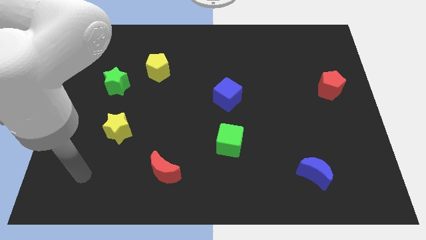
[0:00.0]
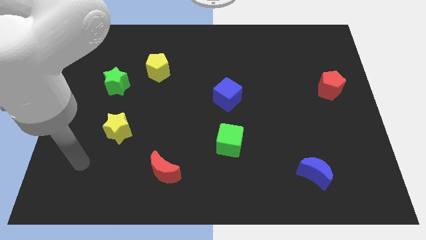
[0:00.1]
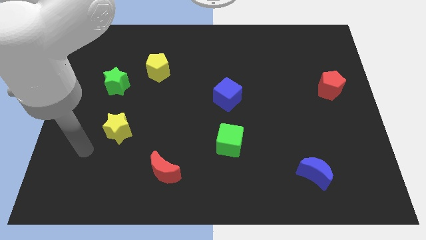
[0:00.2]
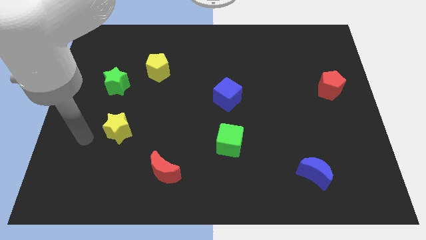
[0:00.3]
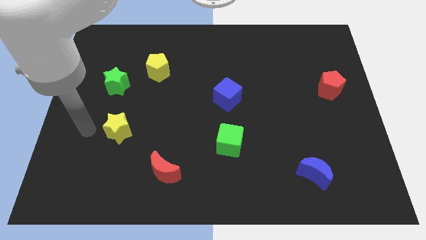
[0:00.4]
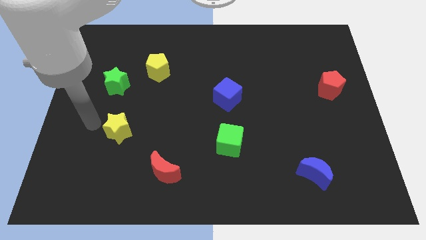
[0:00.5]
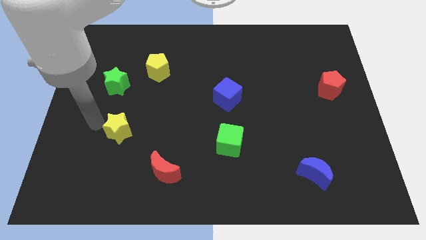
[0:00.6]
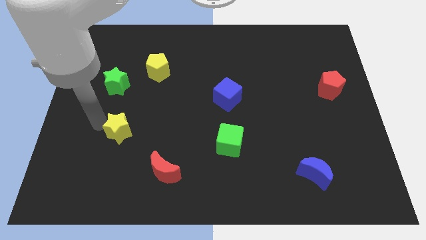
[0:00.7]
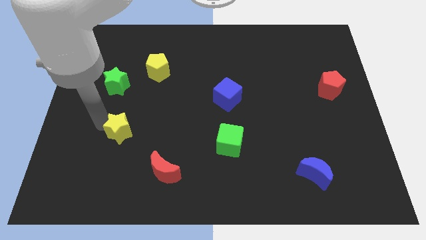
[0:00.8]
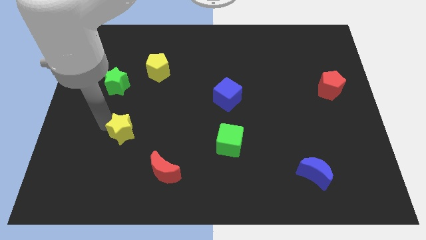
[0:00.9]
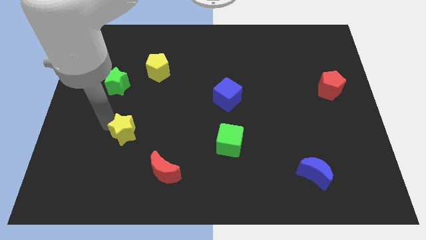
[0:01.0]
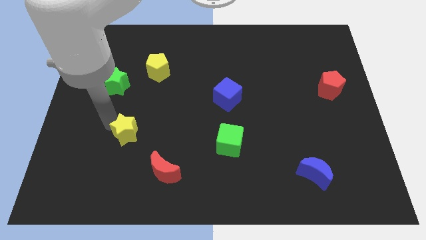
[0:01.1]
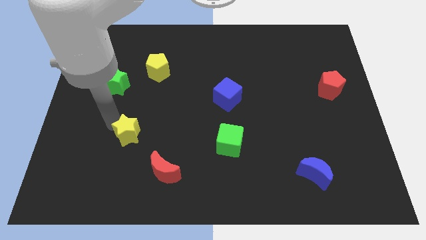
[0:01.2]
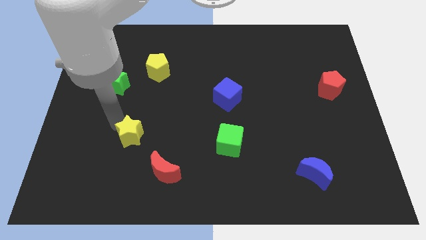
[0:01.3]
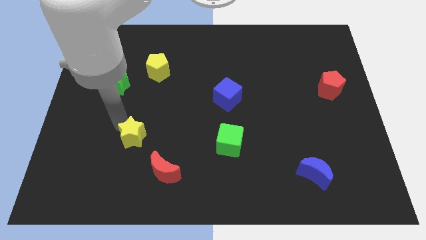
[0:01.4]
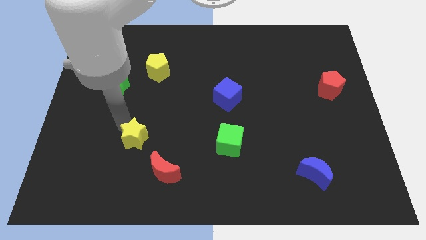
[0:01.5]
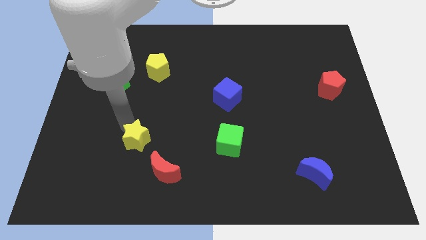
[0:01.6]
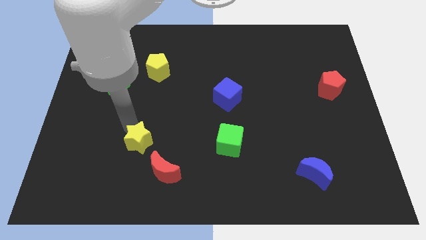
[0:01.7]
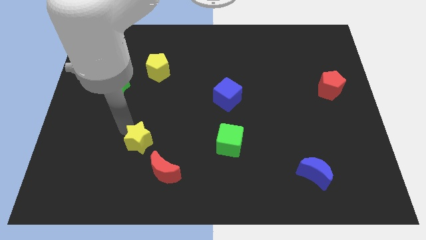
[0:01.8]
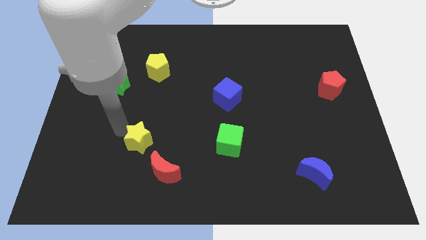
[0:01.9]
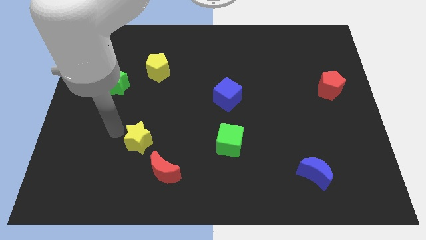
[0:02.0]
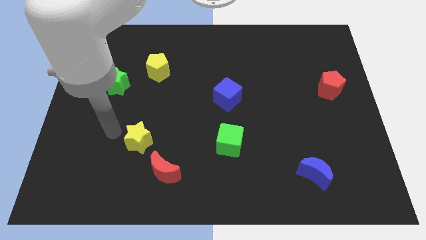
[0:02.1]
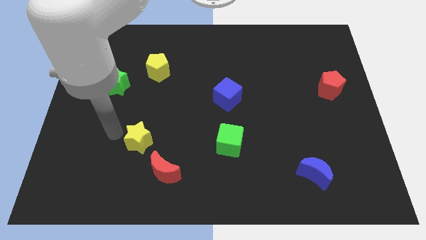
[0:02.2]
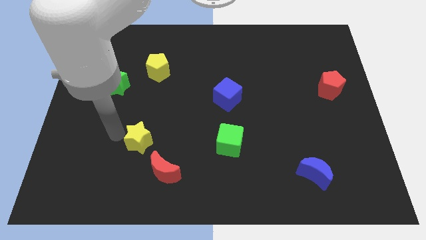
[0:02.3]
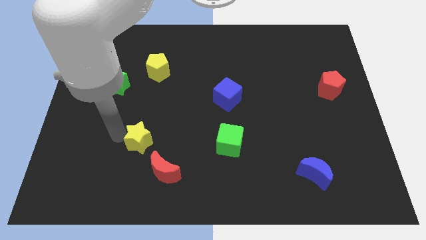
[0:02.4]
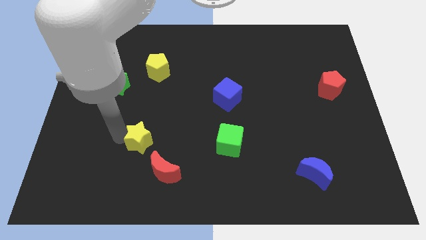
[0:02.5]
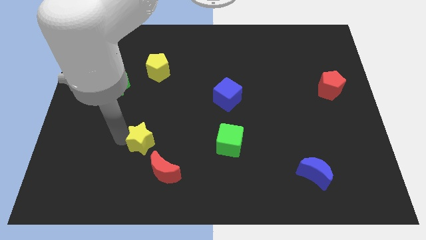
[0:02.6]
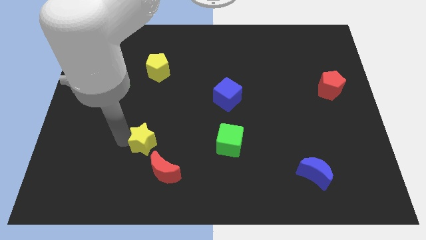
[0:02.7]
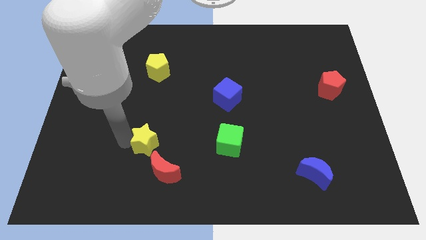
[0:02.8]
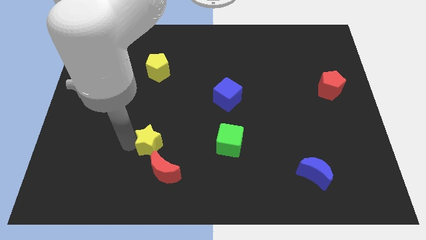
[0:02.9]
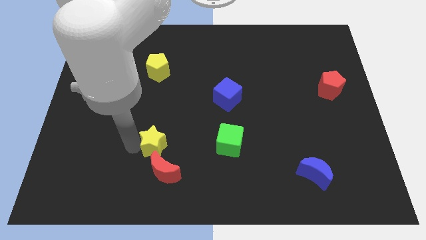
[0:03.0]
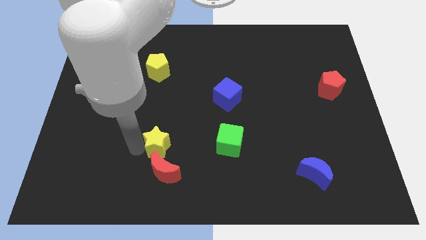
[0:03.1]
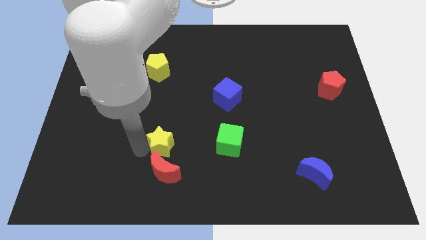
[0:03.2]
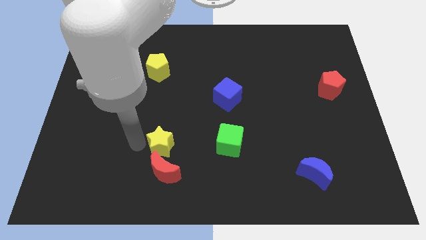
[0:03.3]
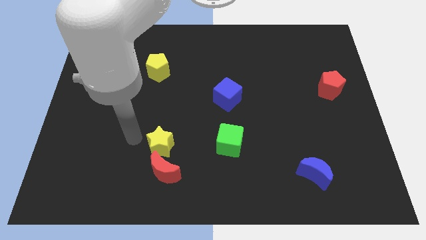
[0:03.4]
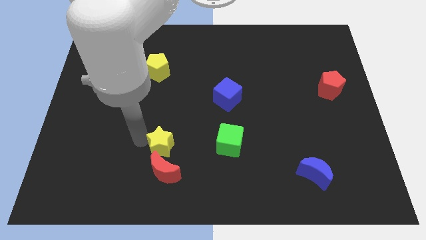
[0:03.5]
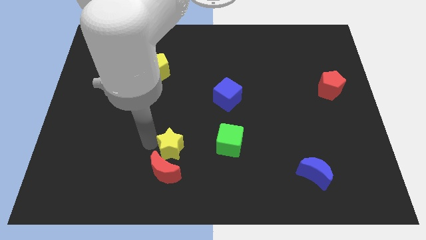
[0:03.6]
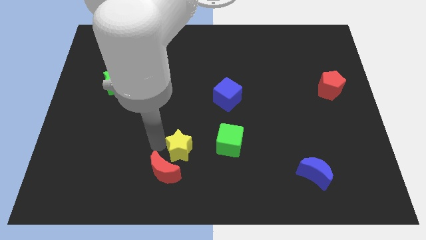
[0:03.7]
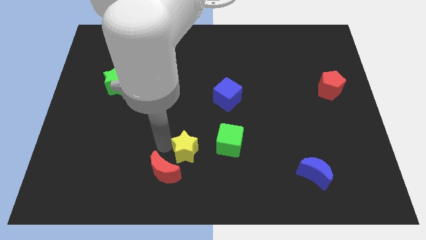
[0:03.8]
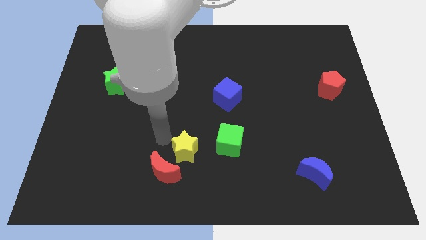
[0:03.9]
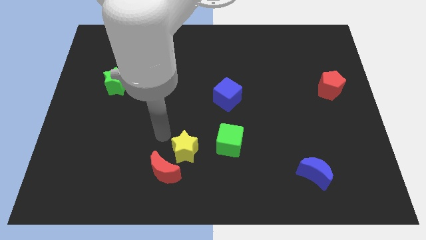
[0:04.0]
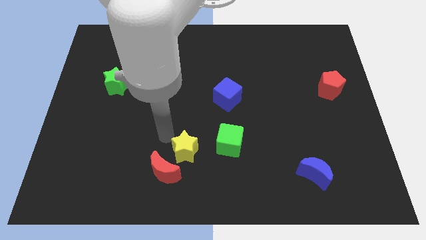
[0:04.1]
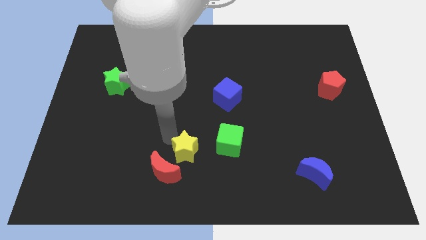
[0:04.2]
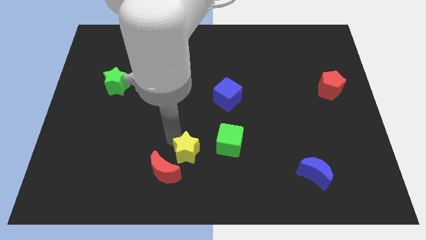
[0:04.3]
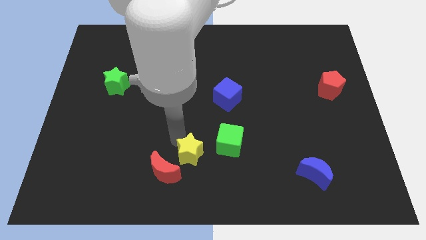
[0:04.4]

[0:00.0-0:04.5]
move the yellow star to the right of the red moon

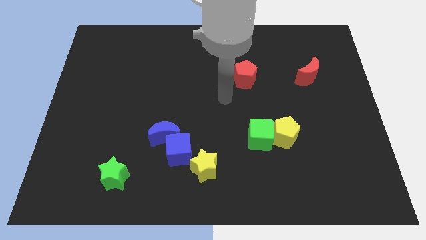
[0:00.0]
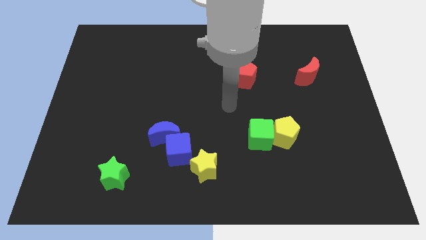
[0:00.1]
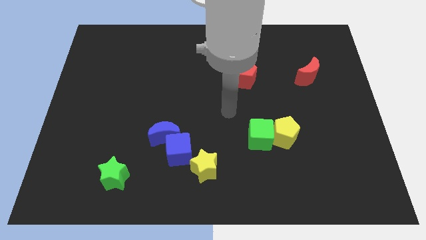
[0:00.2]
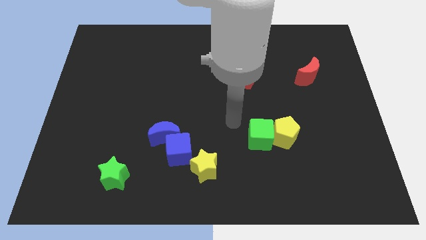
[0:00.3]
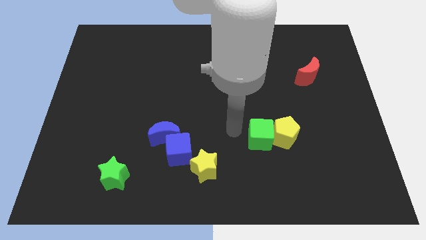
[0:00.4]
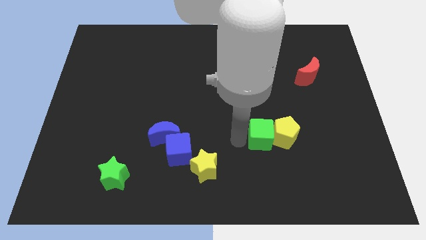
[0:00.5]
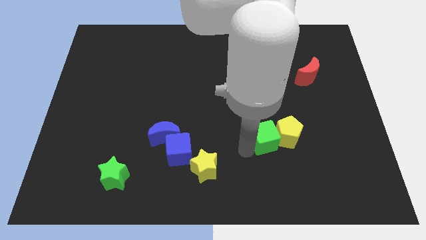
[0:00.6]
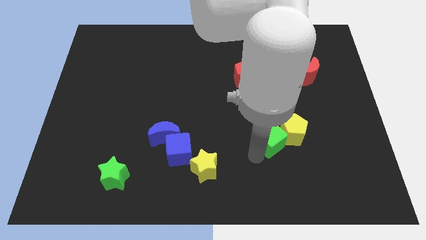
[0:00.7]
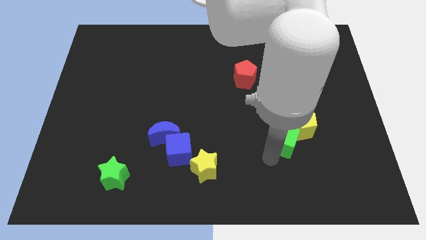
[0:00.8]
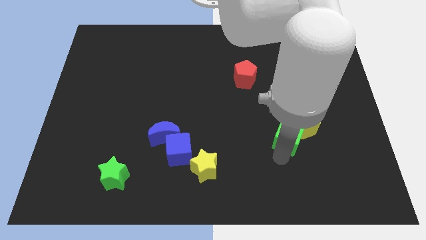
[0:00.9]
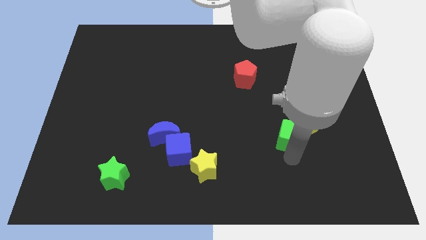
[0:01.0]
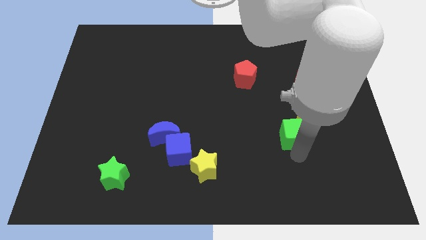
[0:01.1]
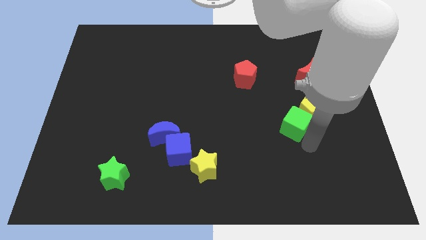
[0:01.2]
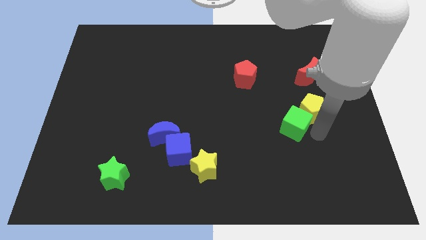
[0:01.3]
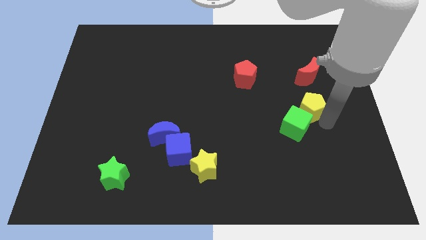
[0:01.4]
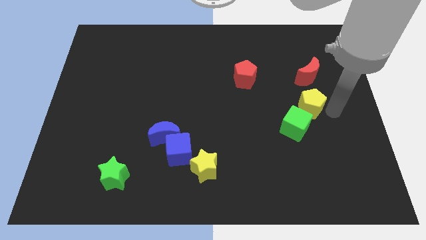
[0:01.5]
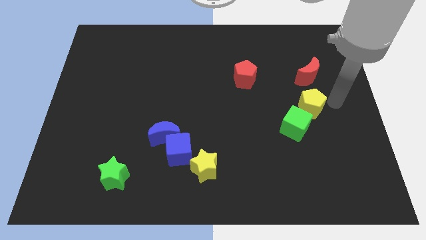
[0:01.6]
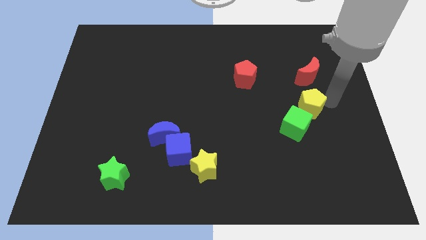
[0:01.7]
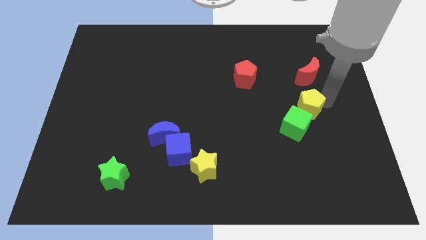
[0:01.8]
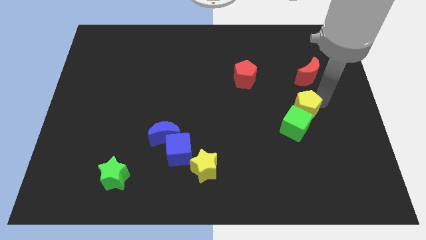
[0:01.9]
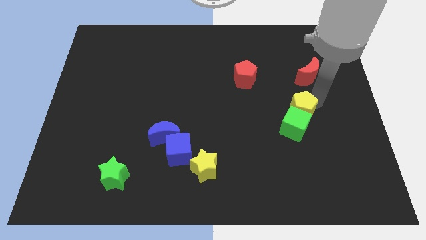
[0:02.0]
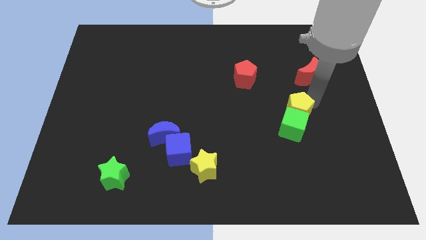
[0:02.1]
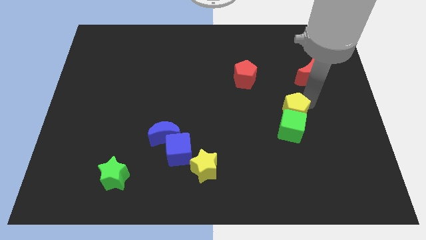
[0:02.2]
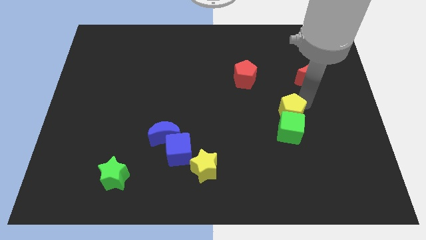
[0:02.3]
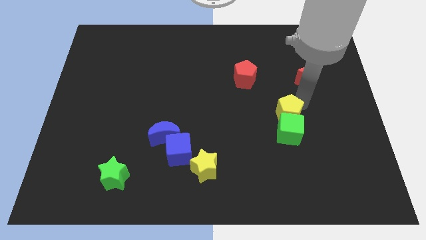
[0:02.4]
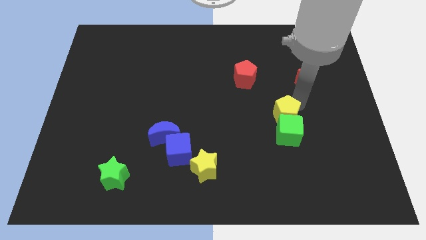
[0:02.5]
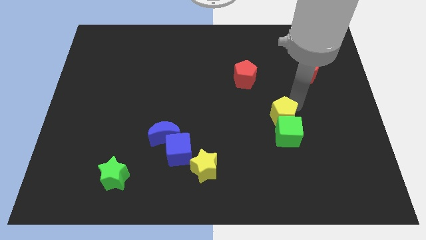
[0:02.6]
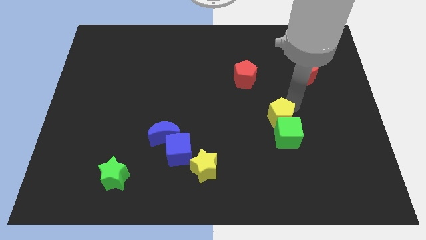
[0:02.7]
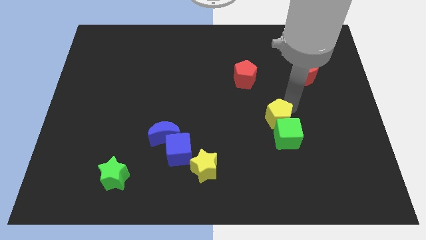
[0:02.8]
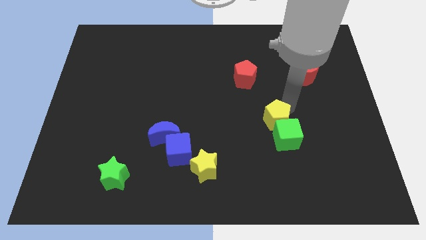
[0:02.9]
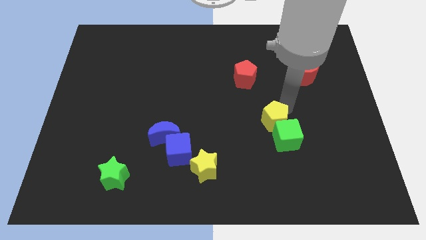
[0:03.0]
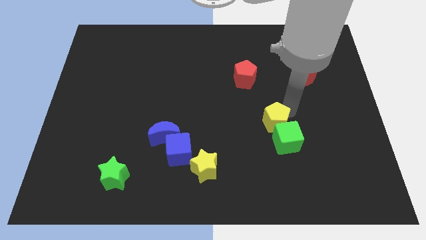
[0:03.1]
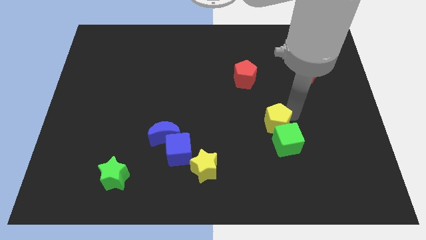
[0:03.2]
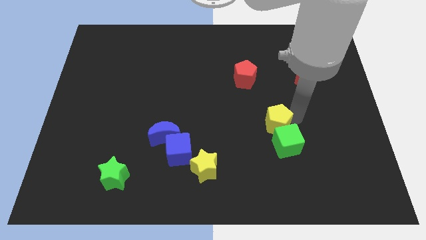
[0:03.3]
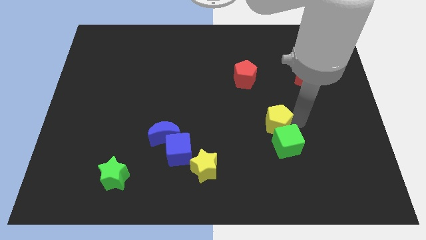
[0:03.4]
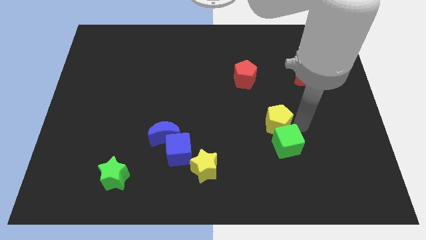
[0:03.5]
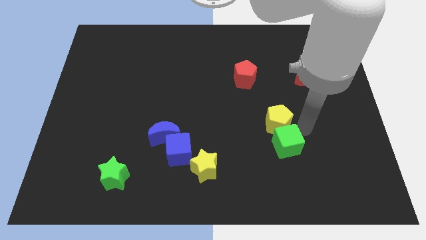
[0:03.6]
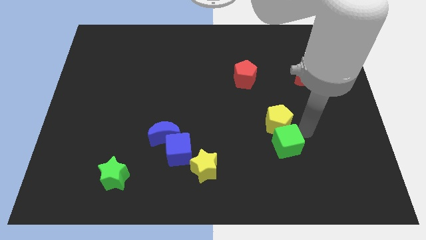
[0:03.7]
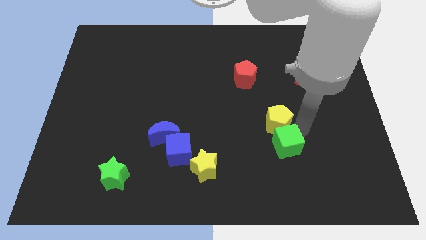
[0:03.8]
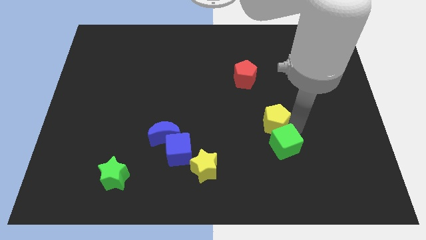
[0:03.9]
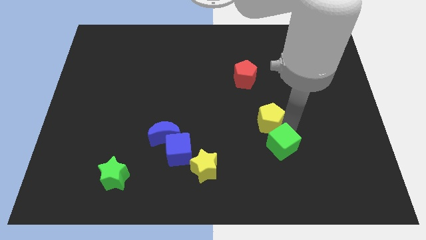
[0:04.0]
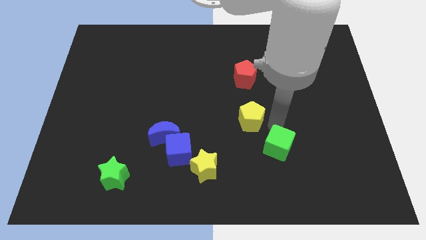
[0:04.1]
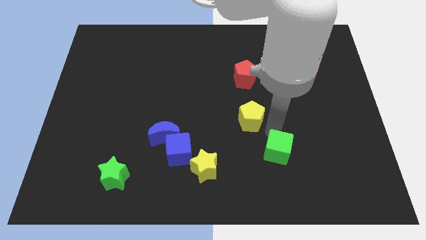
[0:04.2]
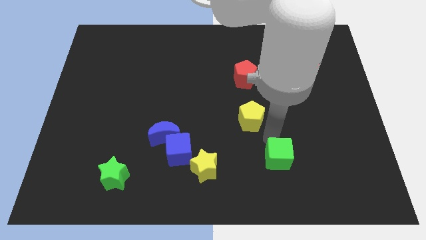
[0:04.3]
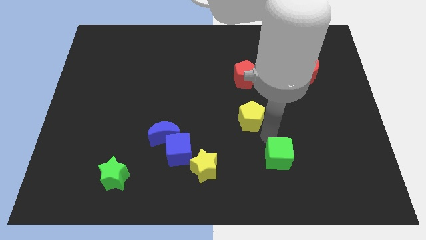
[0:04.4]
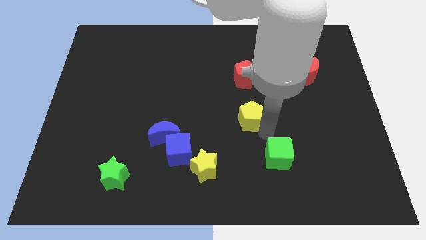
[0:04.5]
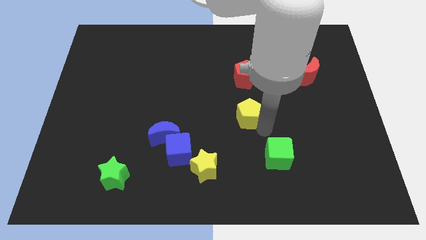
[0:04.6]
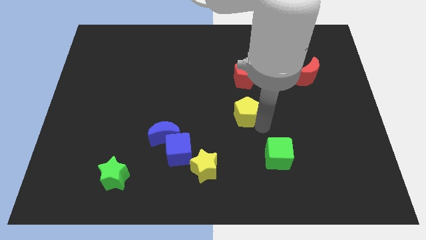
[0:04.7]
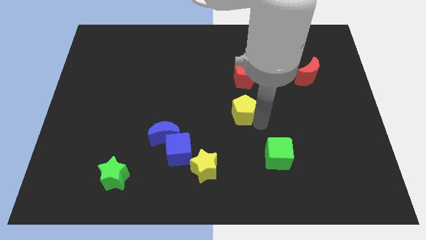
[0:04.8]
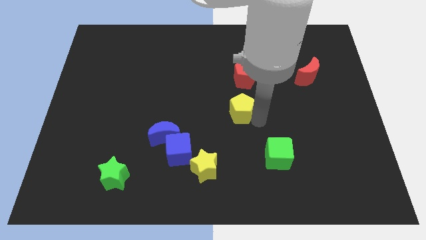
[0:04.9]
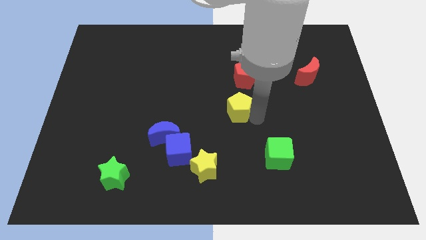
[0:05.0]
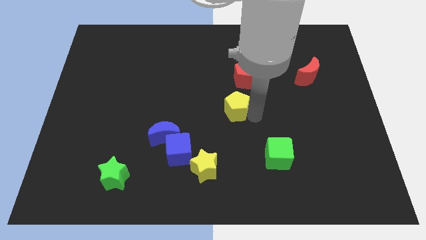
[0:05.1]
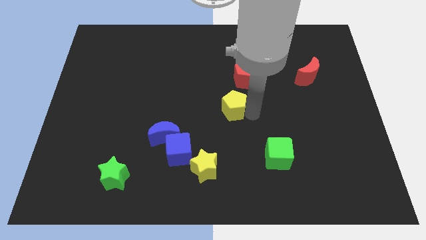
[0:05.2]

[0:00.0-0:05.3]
push the yellow pentagon to the bottom left of the red pentagon
